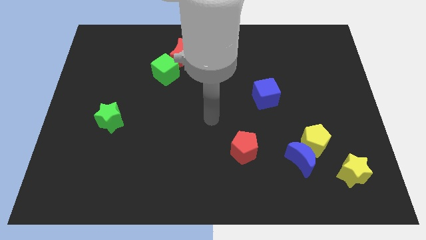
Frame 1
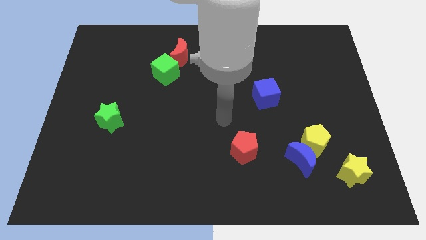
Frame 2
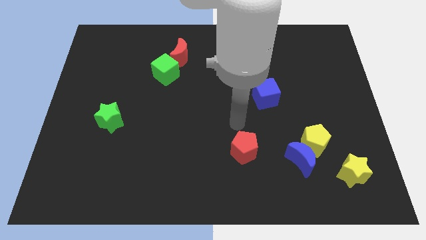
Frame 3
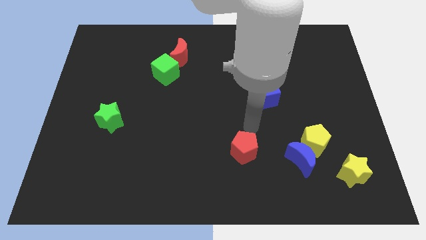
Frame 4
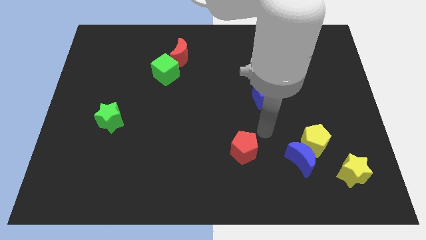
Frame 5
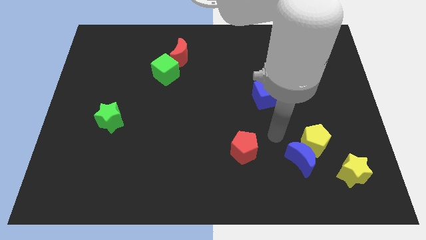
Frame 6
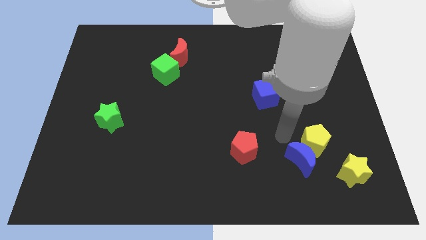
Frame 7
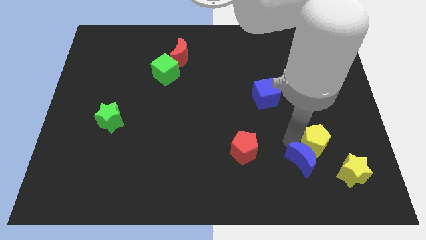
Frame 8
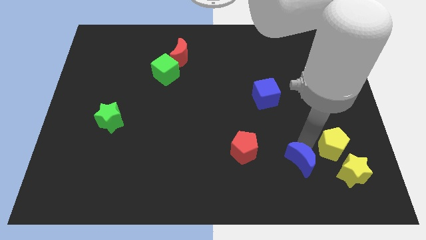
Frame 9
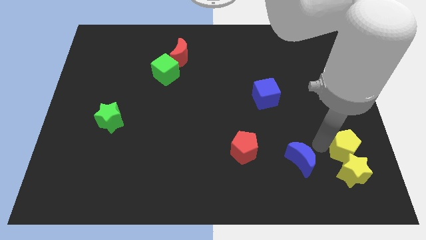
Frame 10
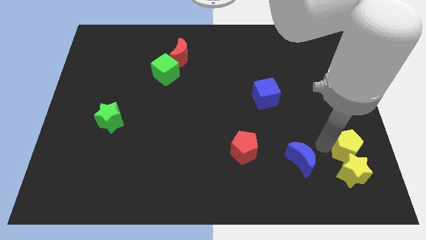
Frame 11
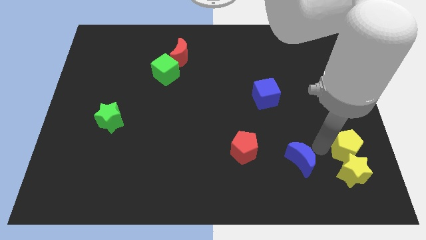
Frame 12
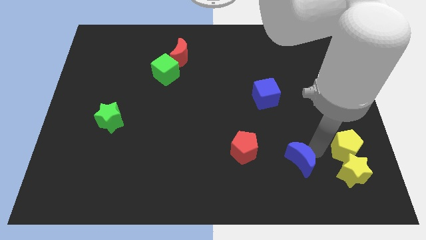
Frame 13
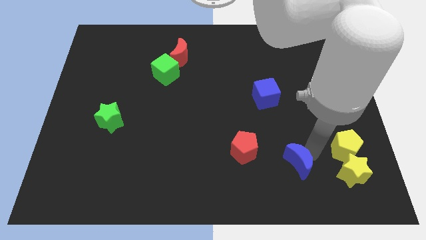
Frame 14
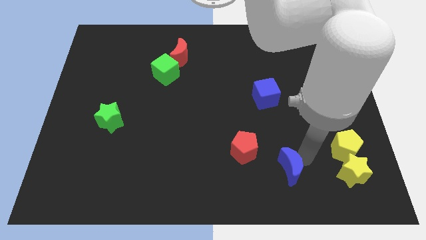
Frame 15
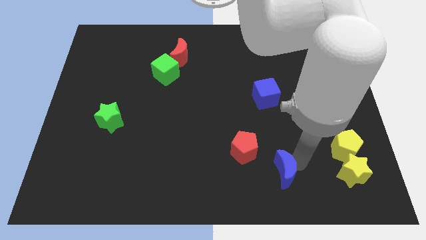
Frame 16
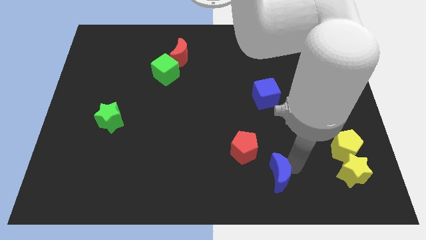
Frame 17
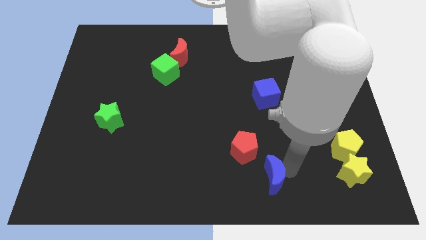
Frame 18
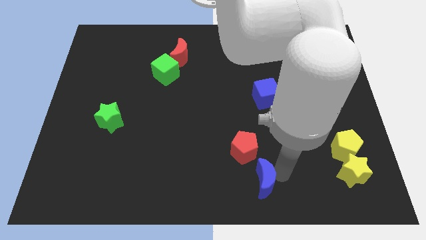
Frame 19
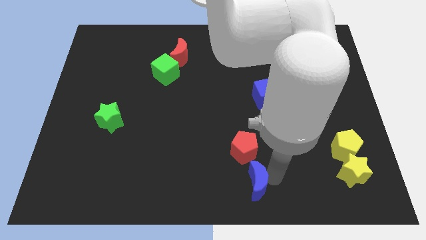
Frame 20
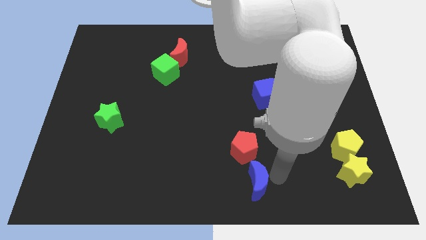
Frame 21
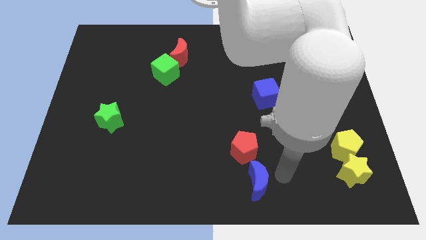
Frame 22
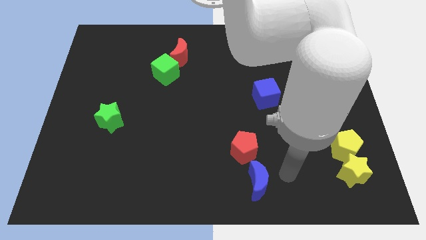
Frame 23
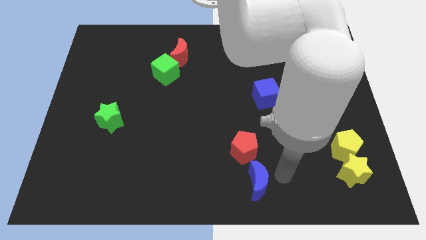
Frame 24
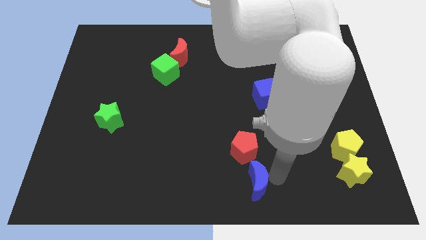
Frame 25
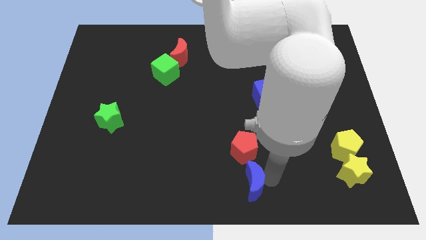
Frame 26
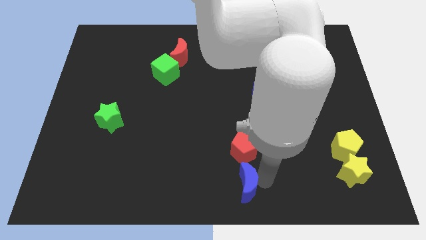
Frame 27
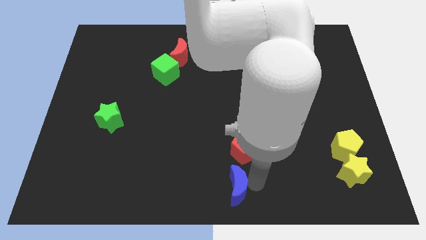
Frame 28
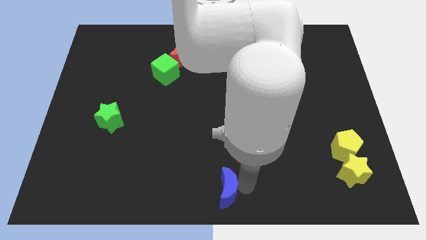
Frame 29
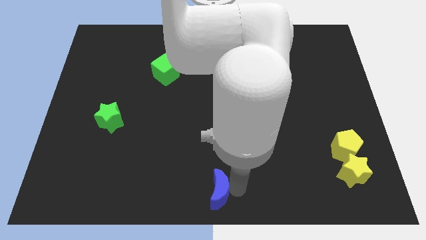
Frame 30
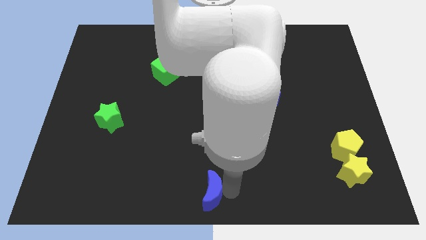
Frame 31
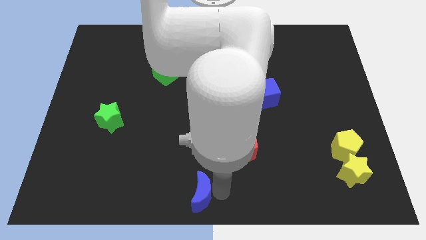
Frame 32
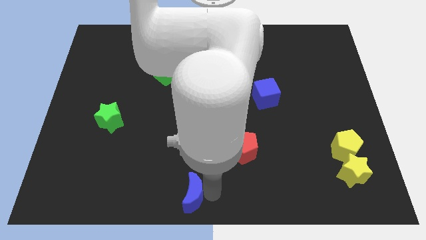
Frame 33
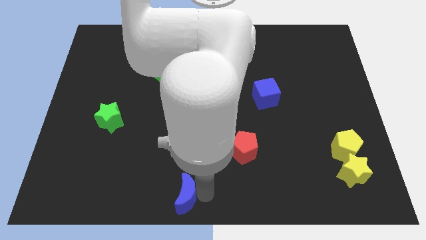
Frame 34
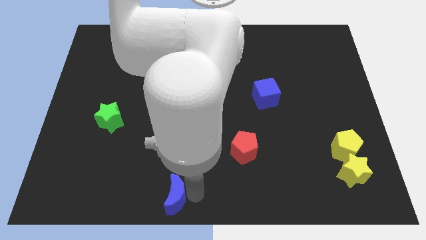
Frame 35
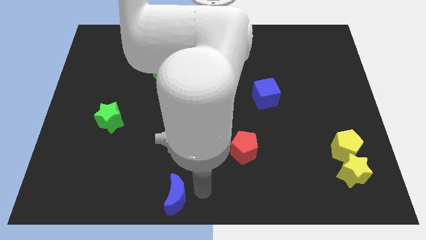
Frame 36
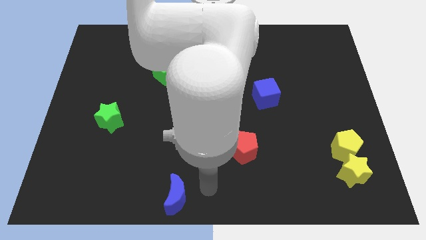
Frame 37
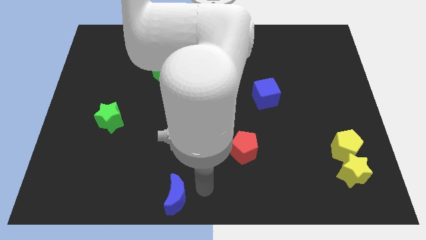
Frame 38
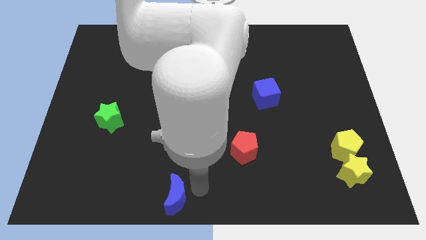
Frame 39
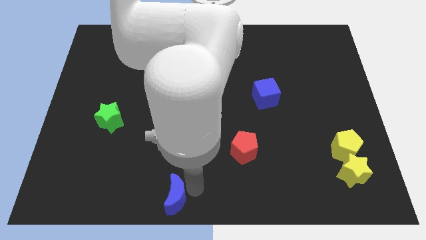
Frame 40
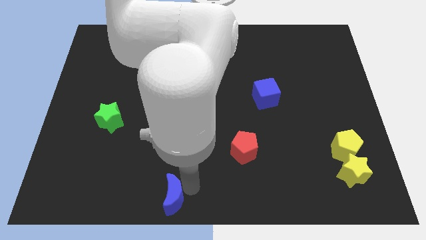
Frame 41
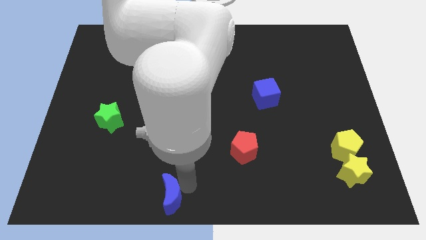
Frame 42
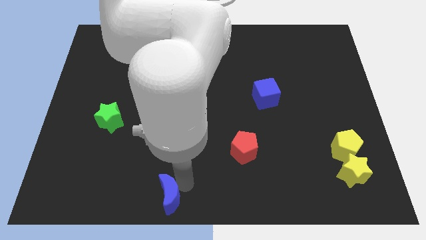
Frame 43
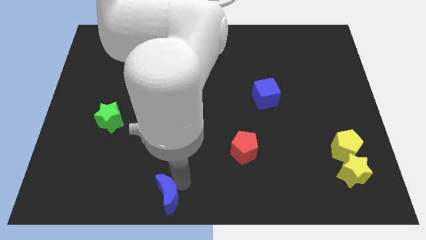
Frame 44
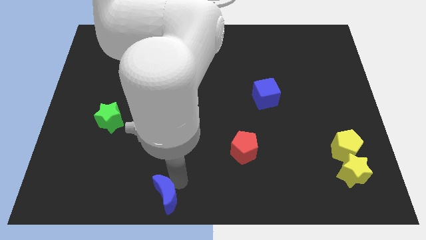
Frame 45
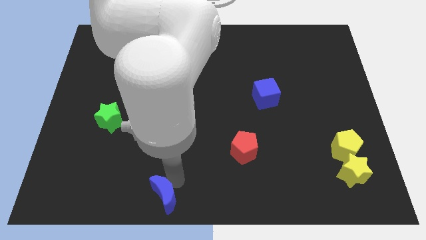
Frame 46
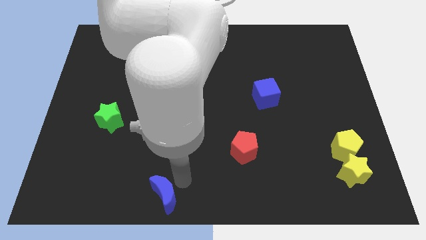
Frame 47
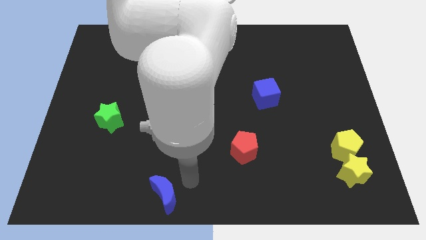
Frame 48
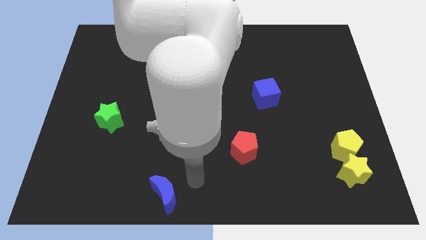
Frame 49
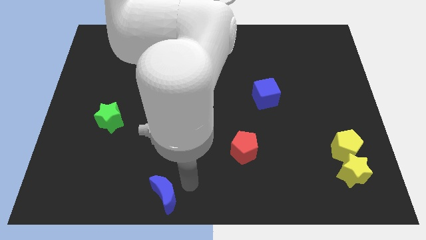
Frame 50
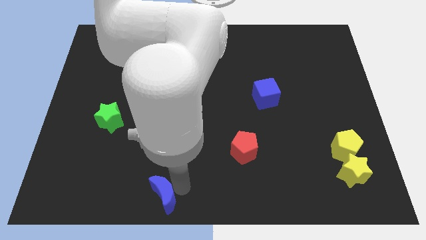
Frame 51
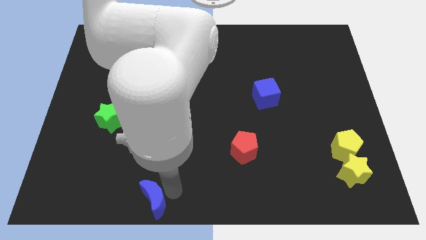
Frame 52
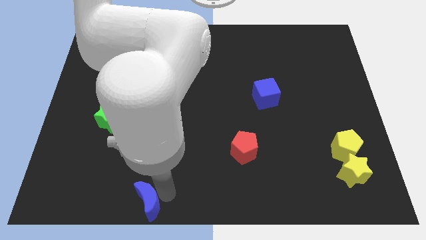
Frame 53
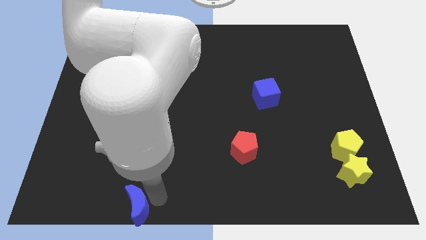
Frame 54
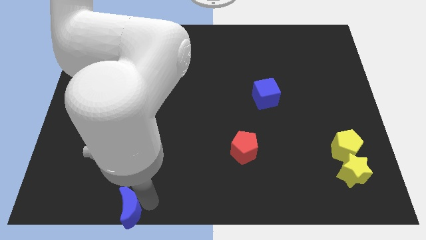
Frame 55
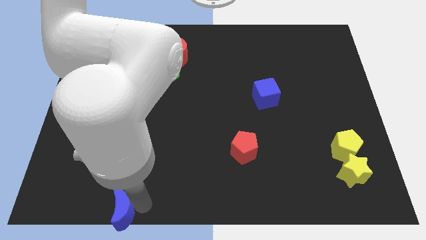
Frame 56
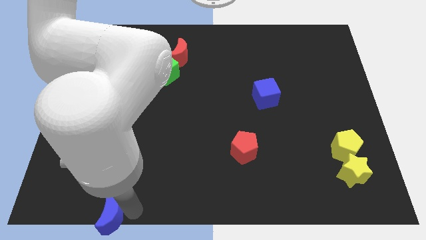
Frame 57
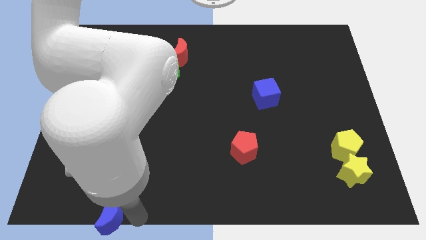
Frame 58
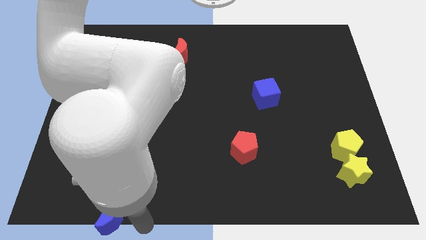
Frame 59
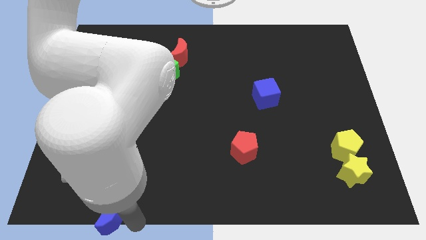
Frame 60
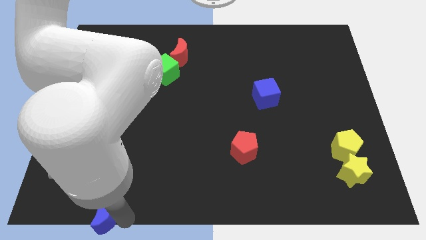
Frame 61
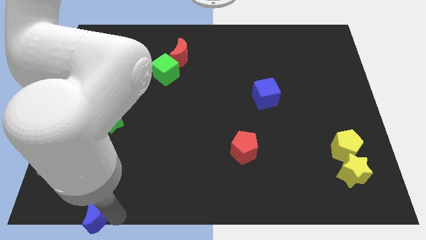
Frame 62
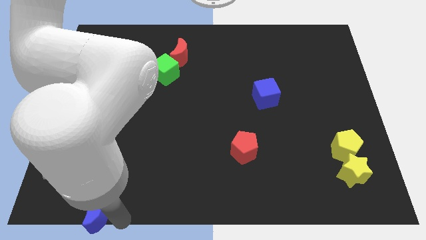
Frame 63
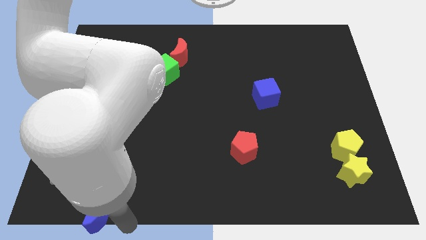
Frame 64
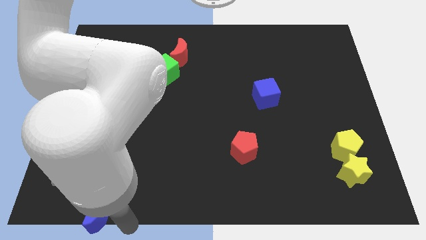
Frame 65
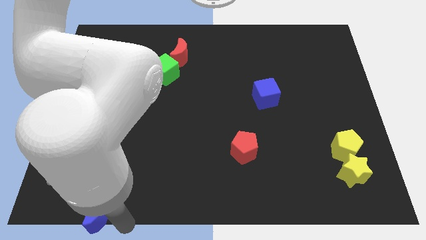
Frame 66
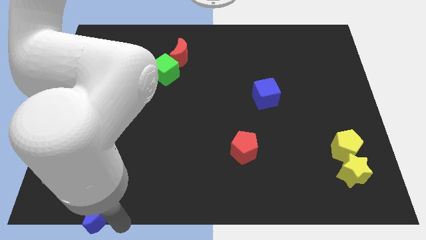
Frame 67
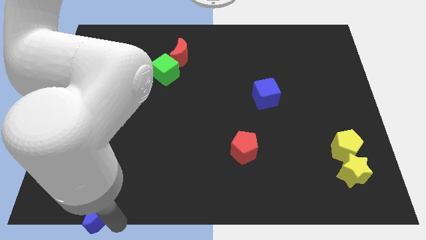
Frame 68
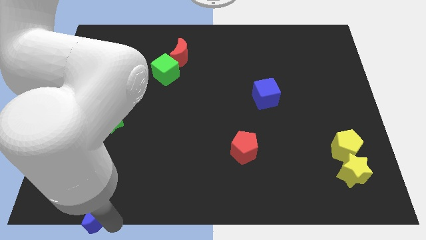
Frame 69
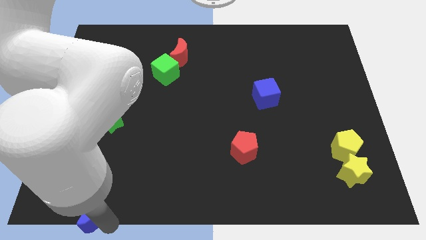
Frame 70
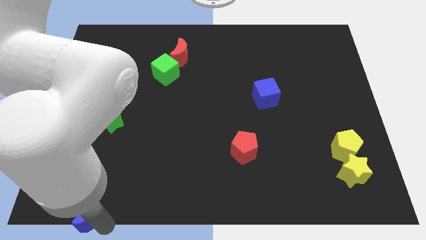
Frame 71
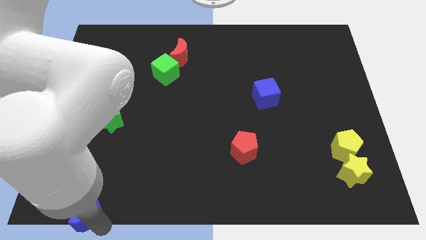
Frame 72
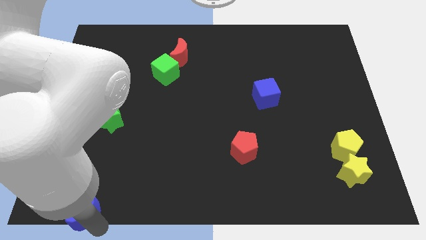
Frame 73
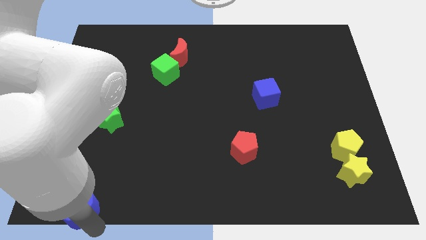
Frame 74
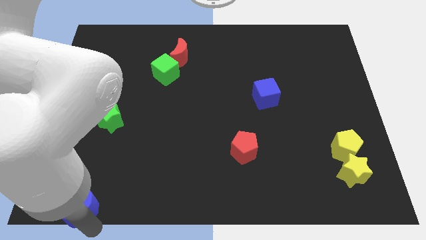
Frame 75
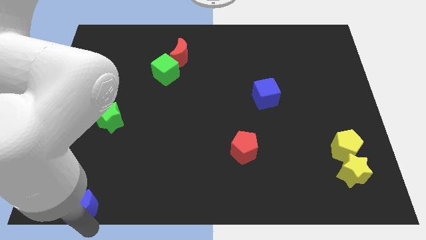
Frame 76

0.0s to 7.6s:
move the blue moon to the lower left corner
